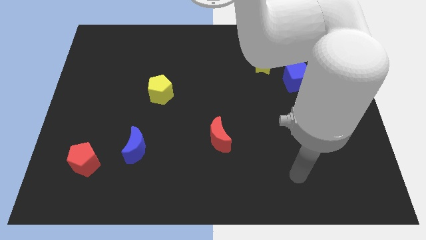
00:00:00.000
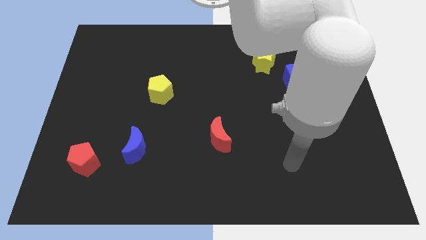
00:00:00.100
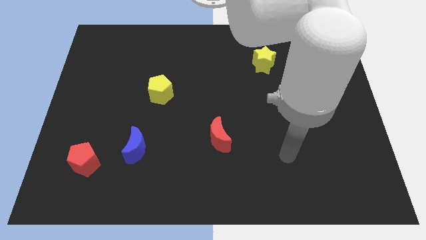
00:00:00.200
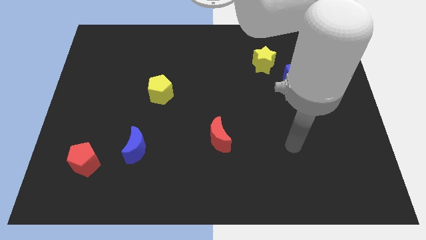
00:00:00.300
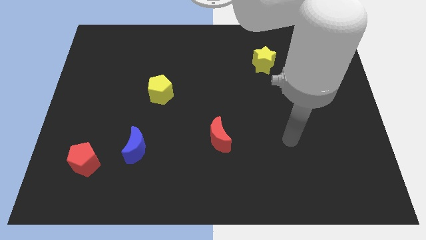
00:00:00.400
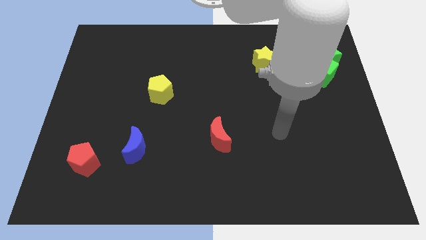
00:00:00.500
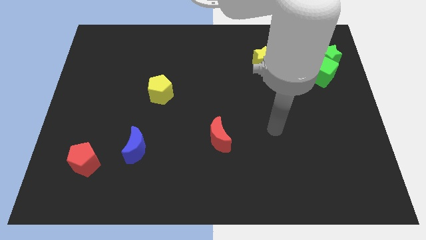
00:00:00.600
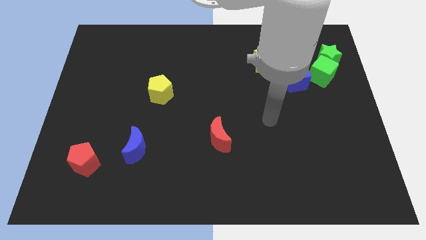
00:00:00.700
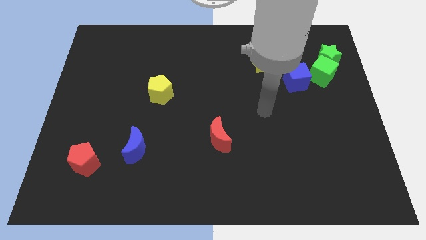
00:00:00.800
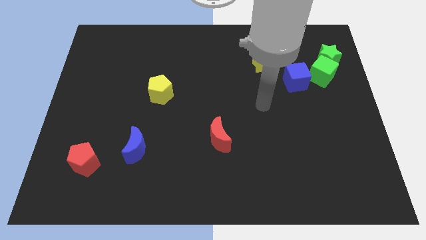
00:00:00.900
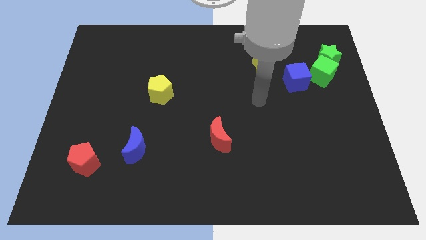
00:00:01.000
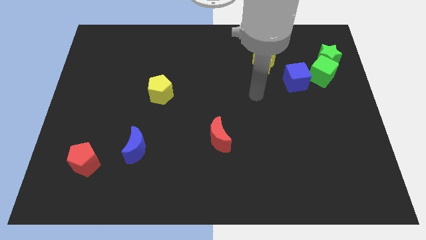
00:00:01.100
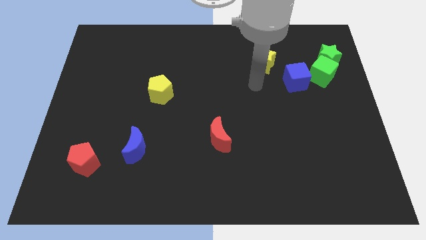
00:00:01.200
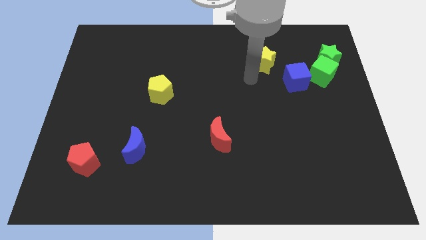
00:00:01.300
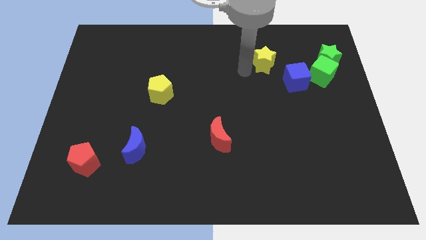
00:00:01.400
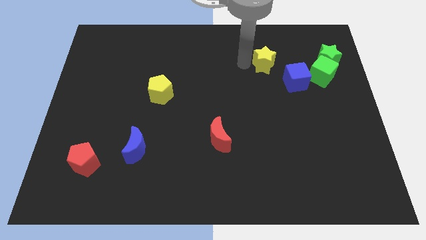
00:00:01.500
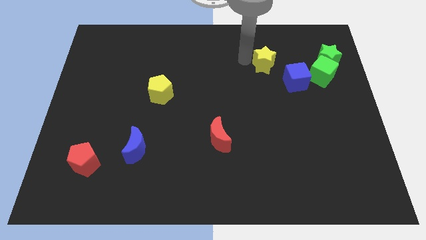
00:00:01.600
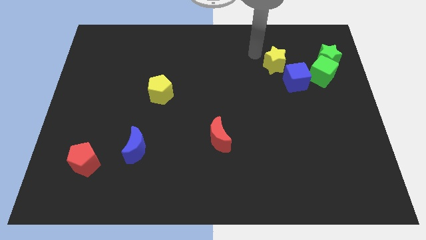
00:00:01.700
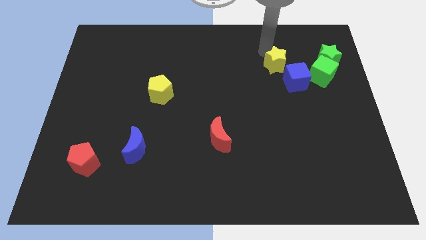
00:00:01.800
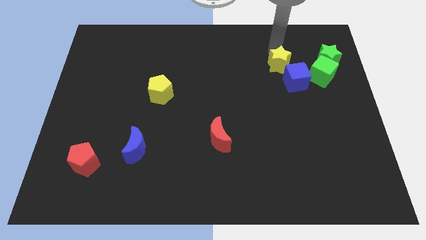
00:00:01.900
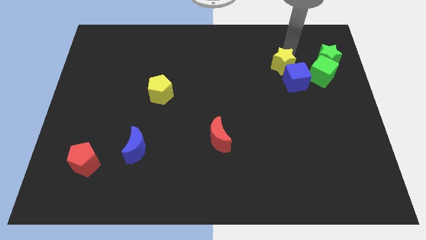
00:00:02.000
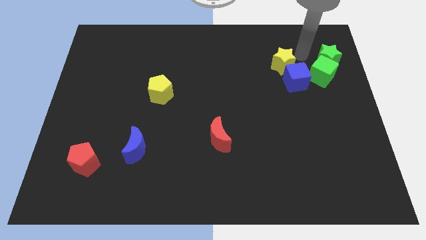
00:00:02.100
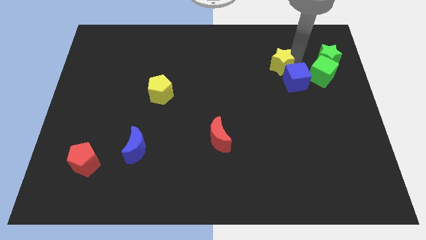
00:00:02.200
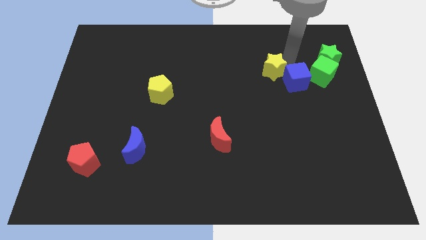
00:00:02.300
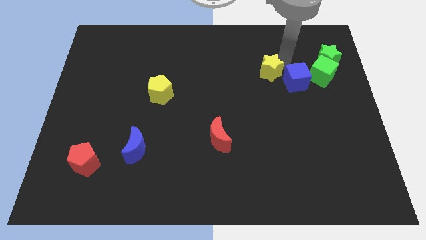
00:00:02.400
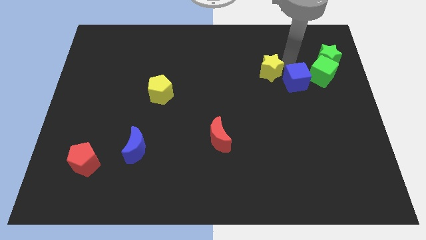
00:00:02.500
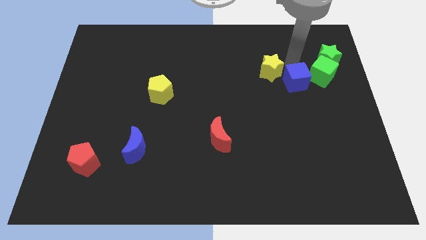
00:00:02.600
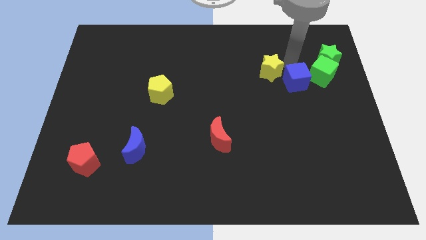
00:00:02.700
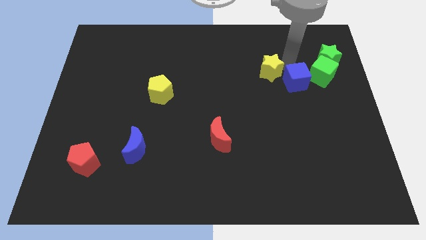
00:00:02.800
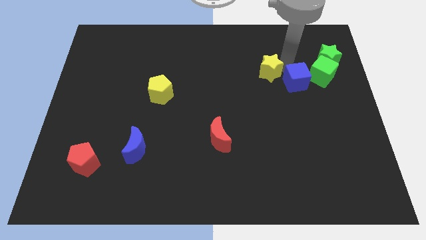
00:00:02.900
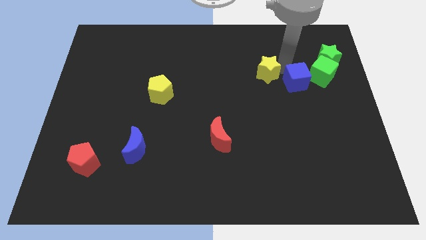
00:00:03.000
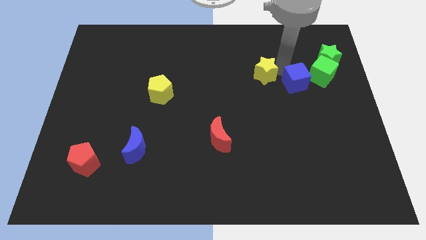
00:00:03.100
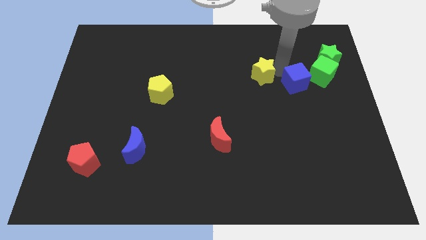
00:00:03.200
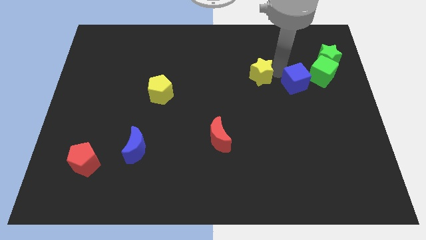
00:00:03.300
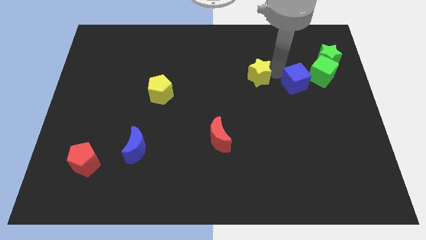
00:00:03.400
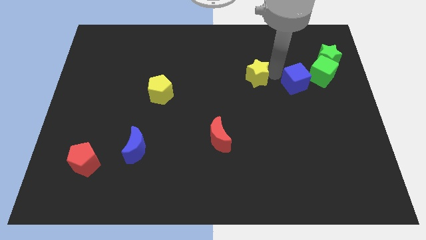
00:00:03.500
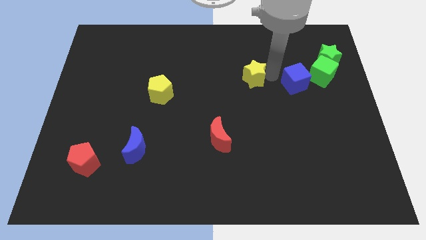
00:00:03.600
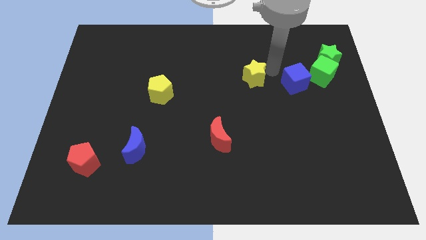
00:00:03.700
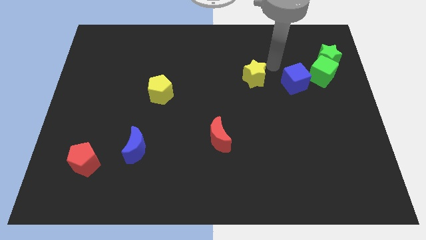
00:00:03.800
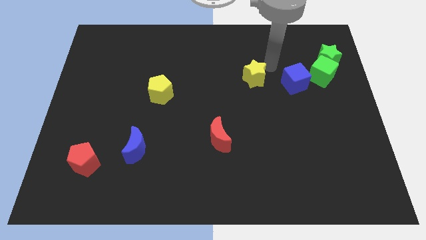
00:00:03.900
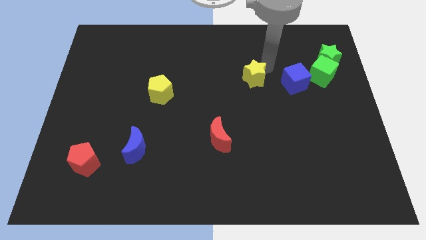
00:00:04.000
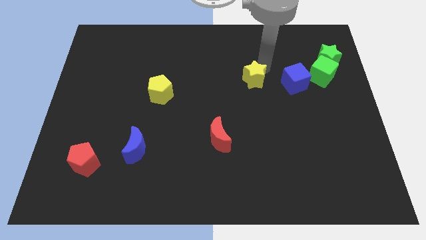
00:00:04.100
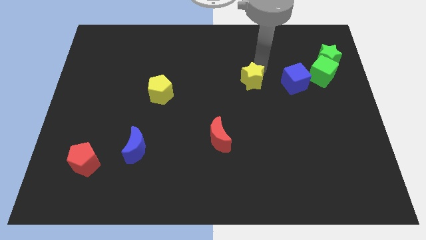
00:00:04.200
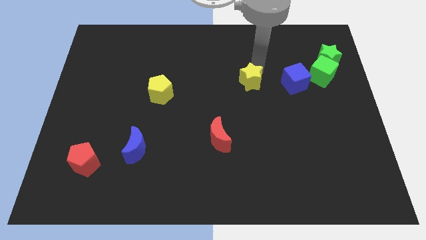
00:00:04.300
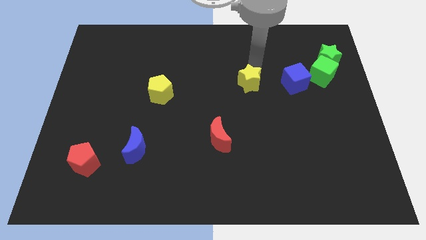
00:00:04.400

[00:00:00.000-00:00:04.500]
push the yellow star downwards and left a bit

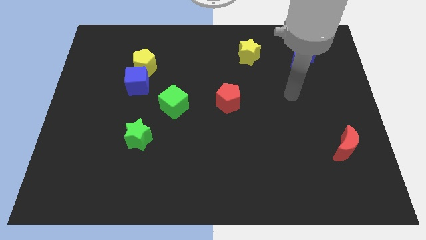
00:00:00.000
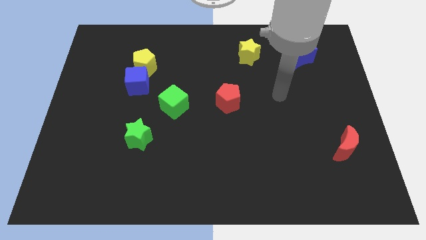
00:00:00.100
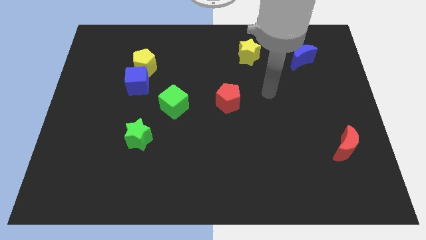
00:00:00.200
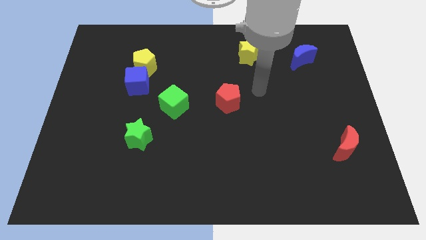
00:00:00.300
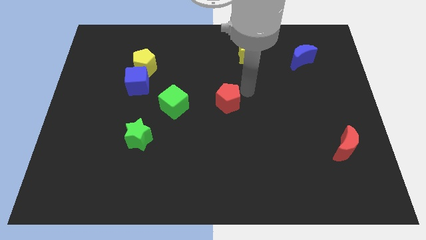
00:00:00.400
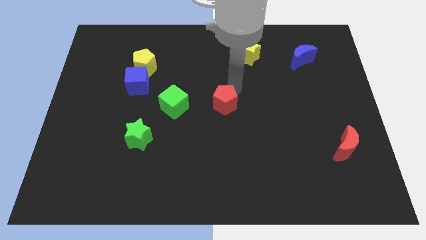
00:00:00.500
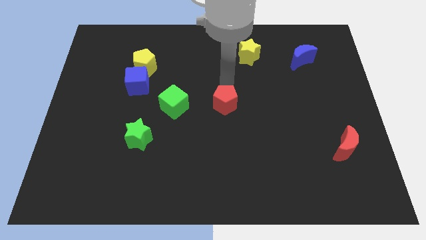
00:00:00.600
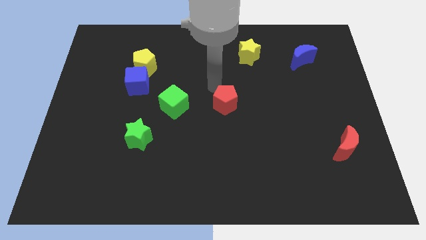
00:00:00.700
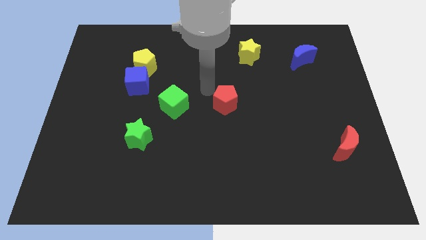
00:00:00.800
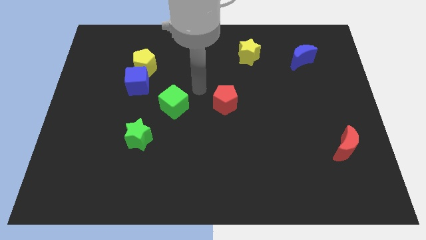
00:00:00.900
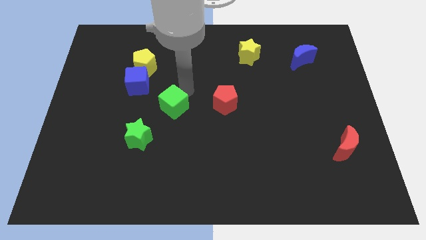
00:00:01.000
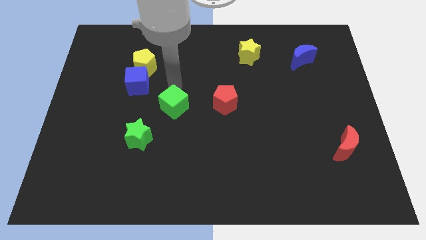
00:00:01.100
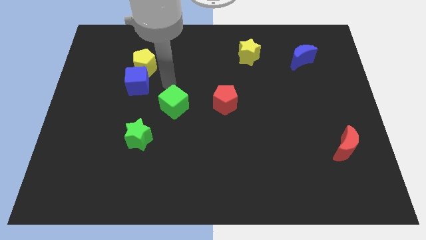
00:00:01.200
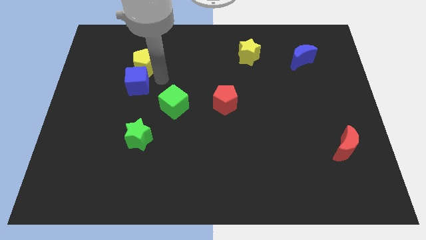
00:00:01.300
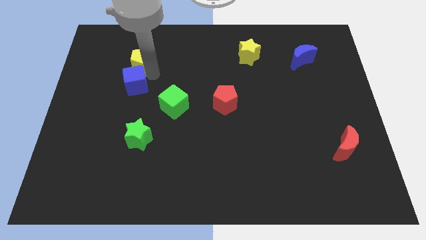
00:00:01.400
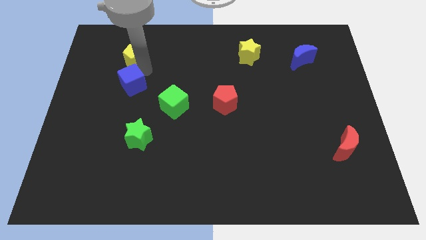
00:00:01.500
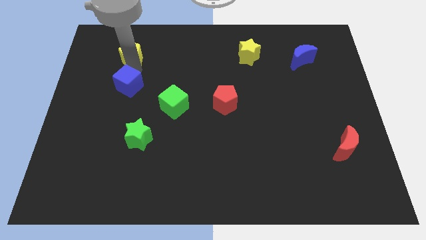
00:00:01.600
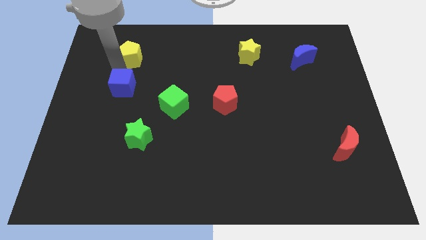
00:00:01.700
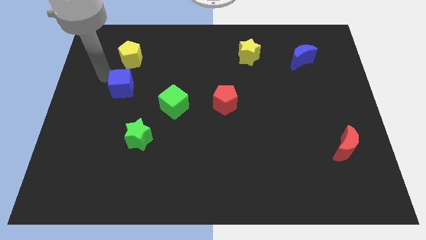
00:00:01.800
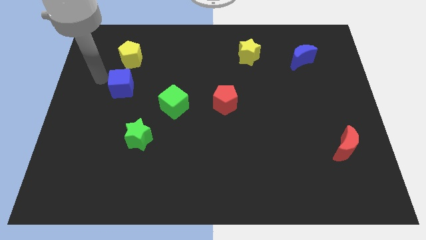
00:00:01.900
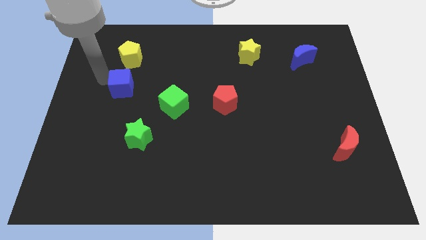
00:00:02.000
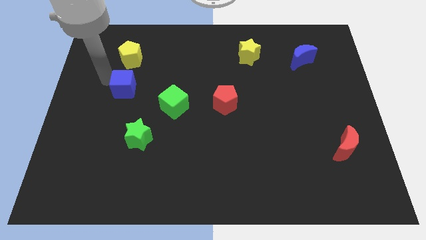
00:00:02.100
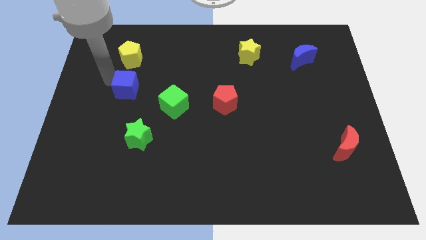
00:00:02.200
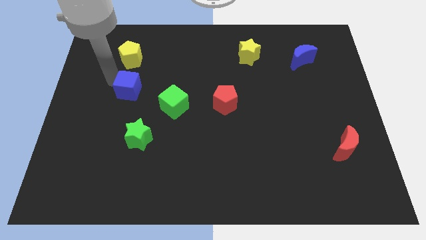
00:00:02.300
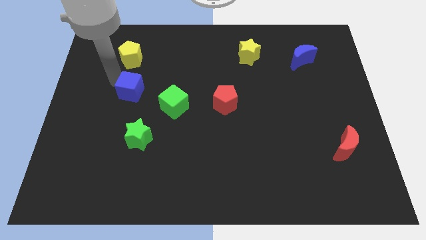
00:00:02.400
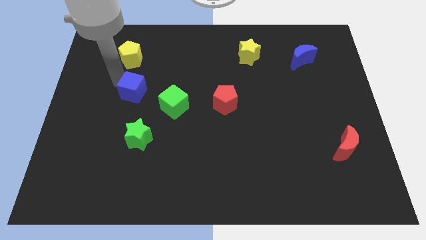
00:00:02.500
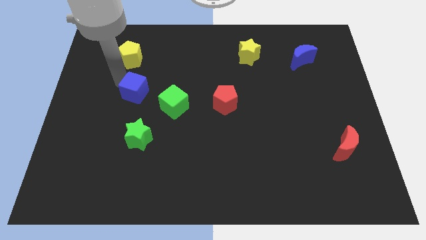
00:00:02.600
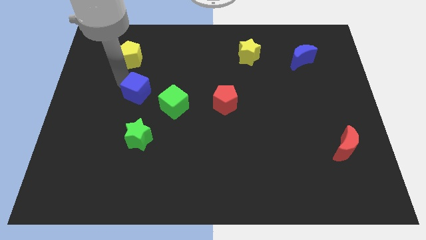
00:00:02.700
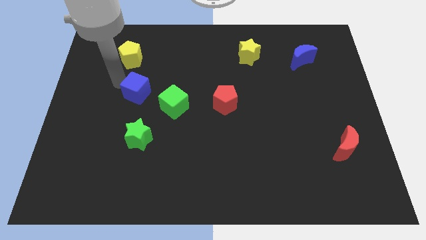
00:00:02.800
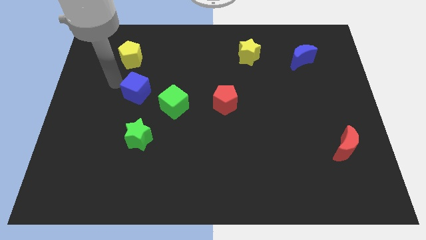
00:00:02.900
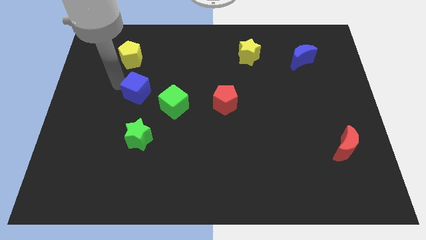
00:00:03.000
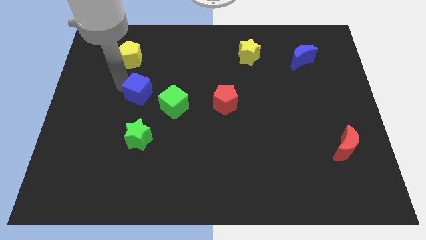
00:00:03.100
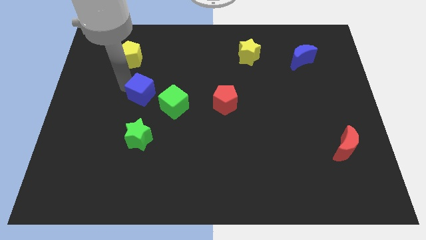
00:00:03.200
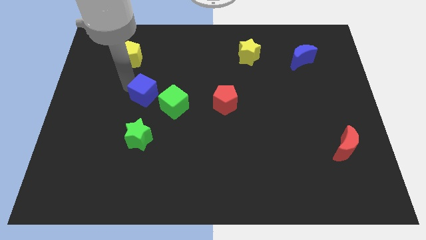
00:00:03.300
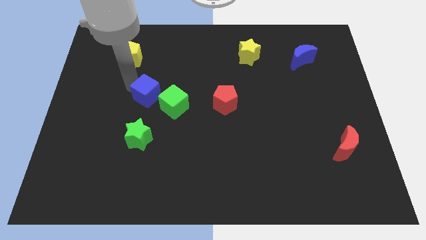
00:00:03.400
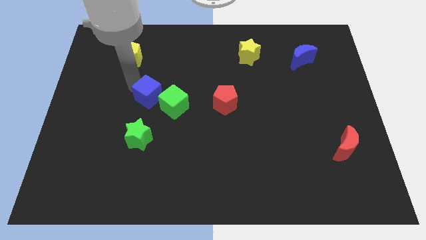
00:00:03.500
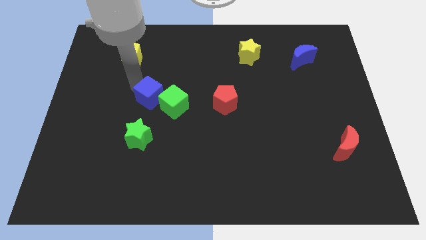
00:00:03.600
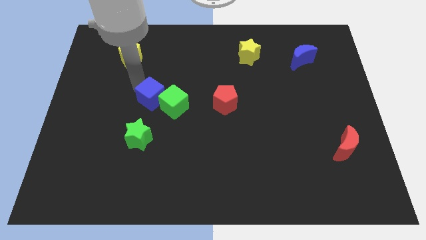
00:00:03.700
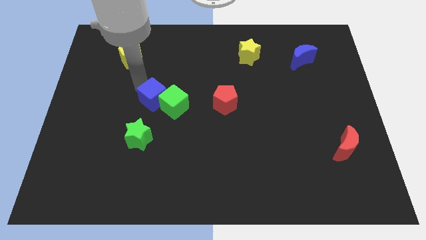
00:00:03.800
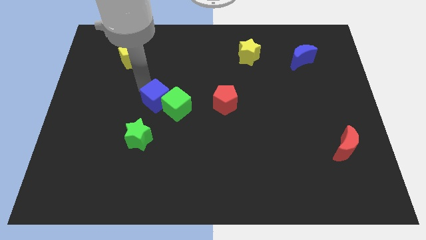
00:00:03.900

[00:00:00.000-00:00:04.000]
slightly push the blue cube downwards and then right
